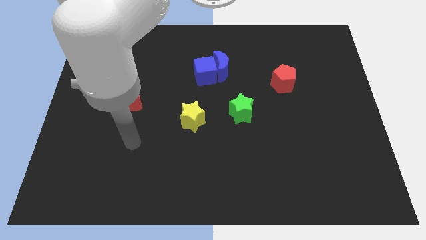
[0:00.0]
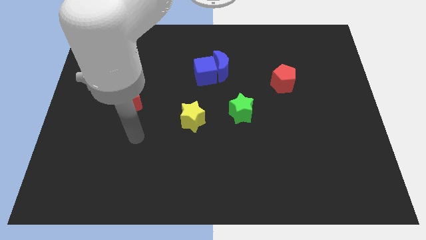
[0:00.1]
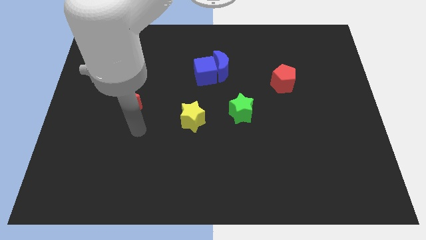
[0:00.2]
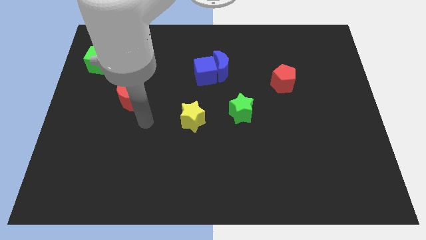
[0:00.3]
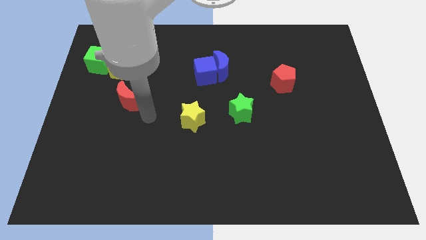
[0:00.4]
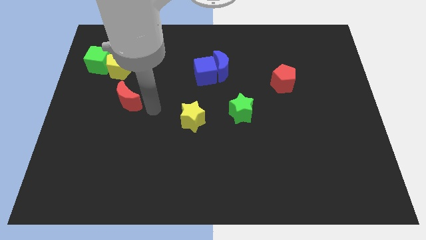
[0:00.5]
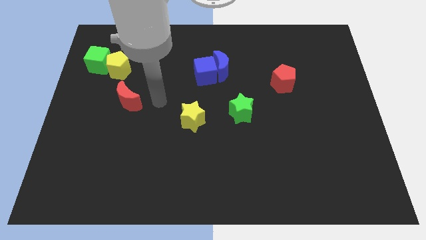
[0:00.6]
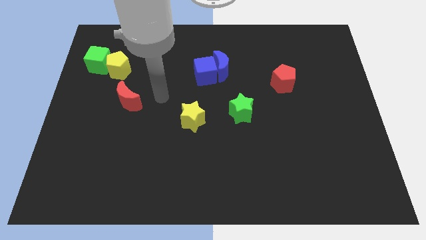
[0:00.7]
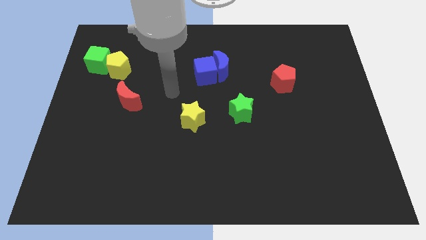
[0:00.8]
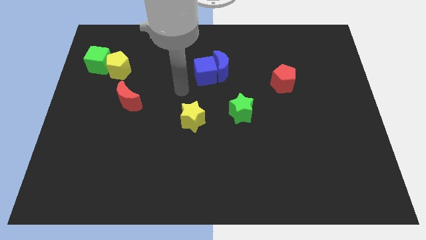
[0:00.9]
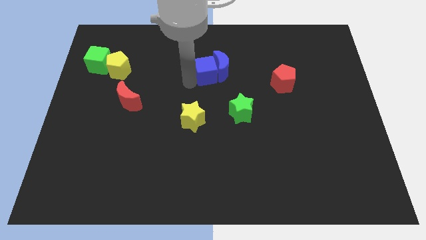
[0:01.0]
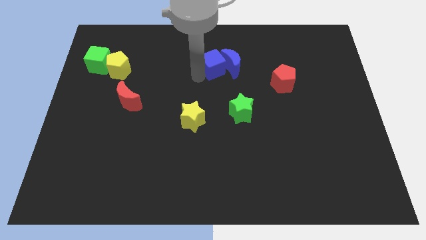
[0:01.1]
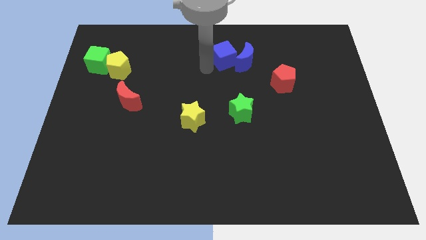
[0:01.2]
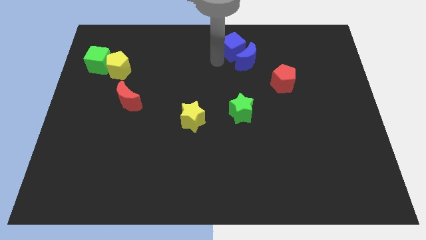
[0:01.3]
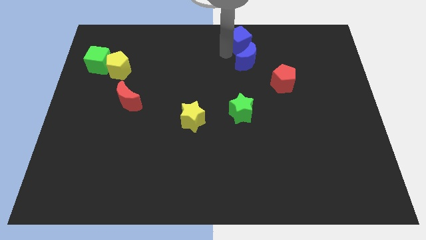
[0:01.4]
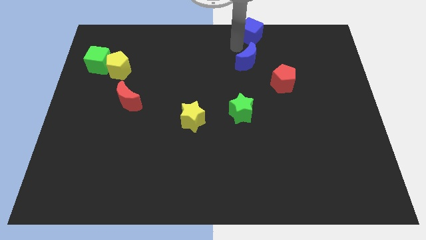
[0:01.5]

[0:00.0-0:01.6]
separate the blue moon from the blue cube

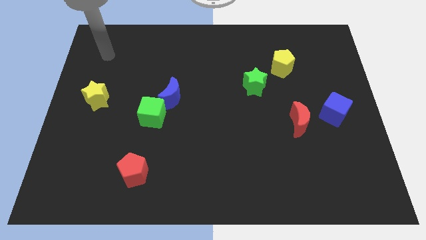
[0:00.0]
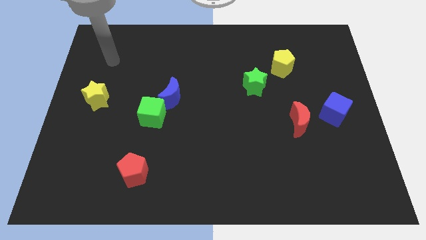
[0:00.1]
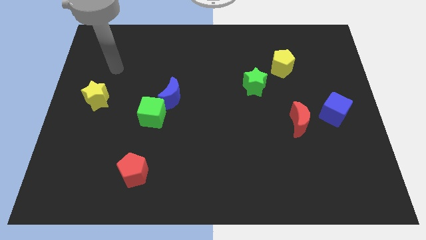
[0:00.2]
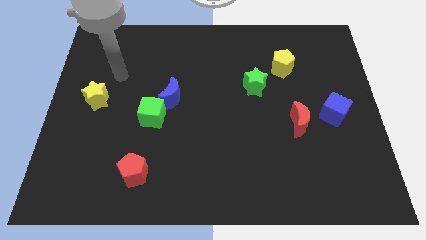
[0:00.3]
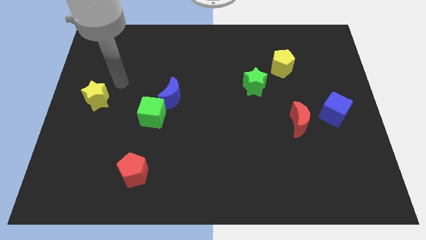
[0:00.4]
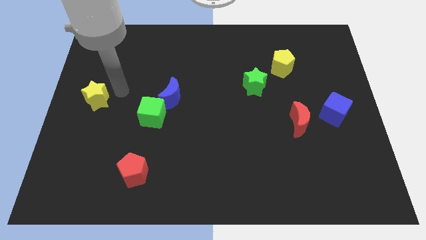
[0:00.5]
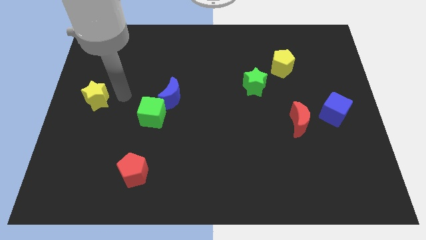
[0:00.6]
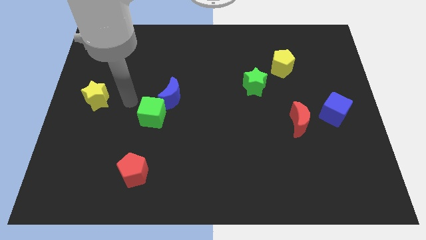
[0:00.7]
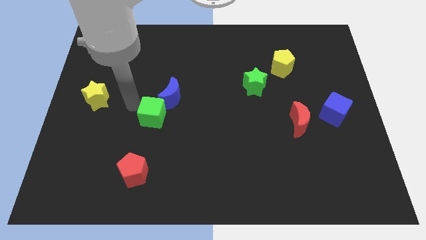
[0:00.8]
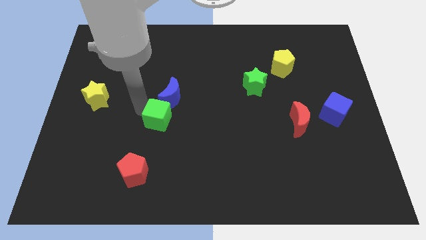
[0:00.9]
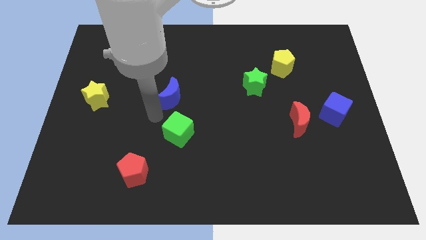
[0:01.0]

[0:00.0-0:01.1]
separate the blue moon from the green cube

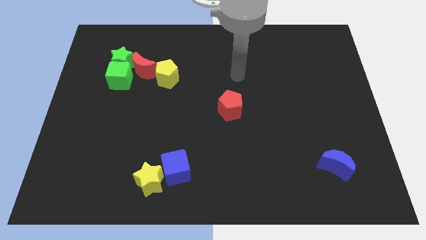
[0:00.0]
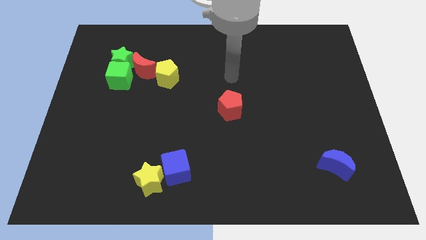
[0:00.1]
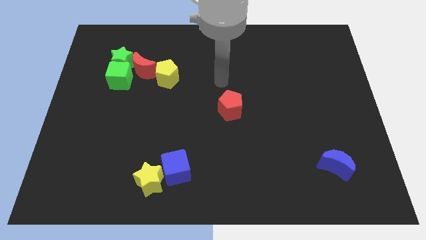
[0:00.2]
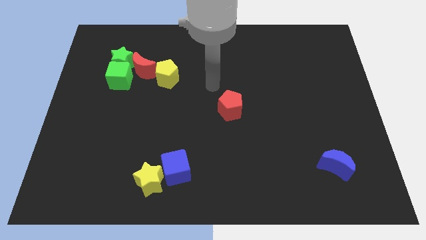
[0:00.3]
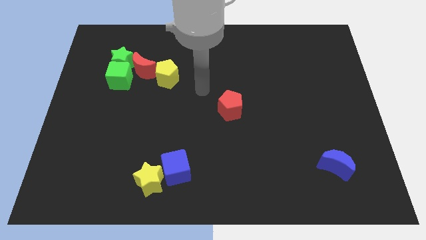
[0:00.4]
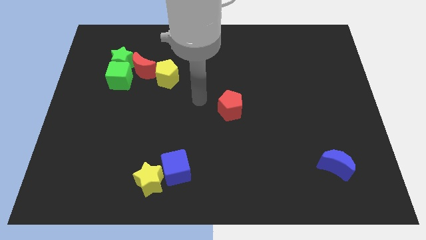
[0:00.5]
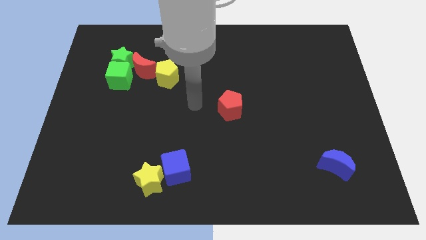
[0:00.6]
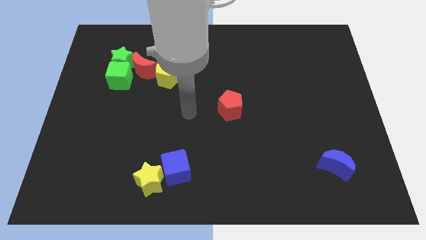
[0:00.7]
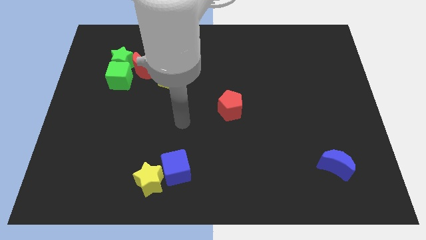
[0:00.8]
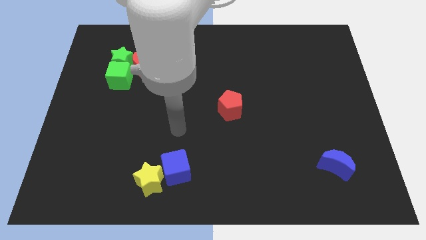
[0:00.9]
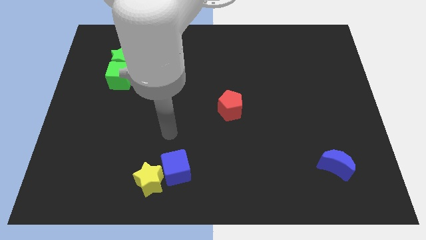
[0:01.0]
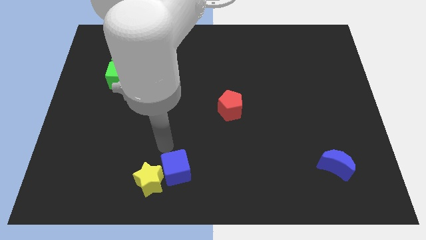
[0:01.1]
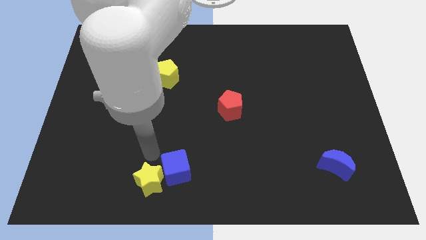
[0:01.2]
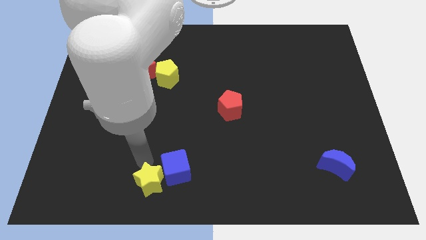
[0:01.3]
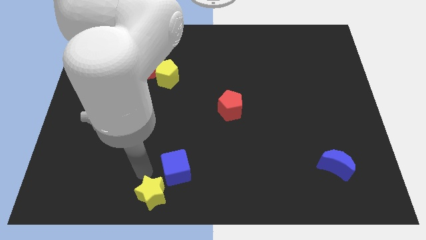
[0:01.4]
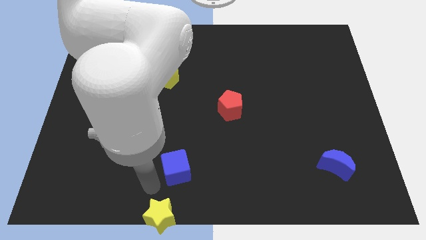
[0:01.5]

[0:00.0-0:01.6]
separate the blue cube from the yellow star

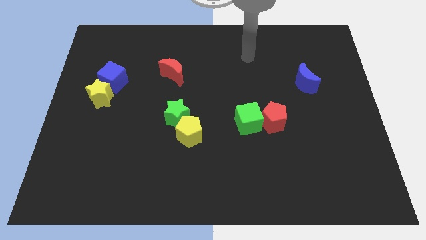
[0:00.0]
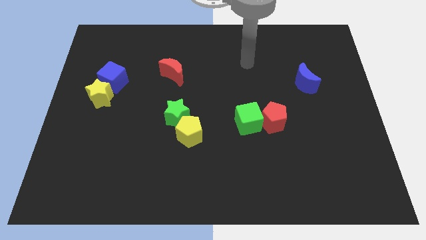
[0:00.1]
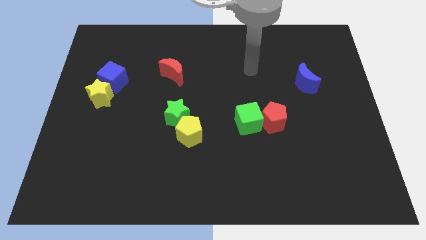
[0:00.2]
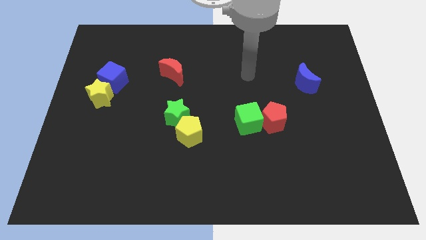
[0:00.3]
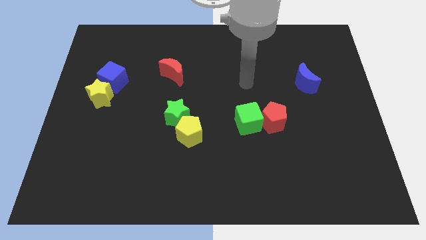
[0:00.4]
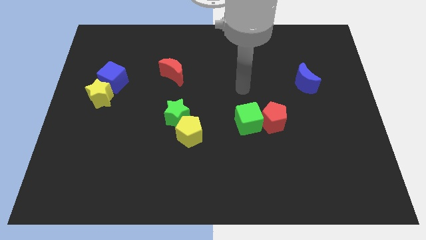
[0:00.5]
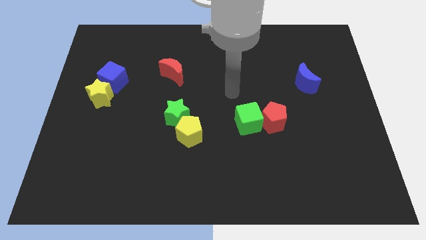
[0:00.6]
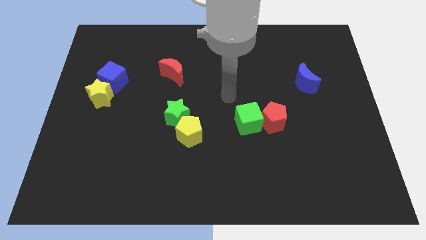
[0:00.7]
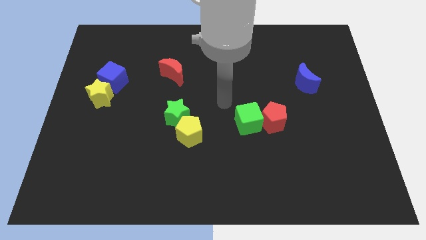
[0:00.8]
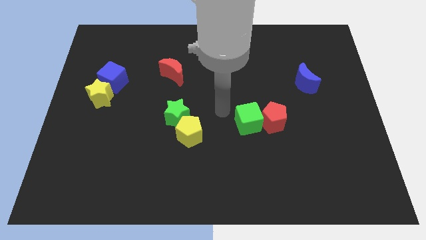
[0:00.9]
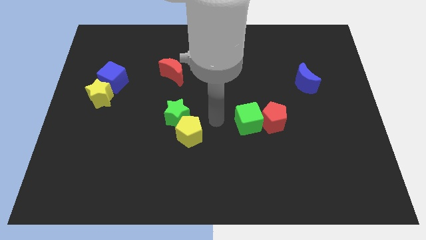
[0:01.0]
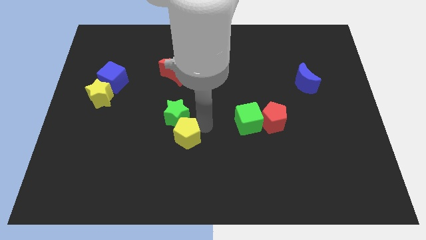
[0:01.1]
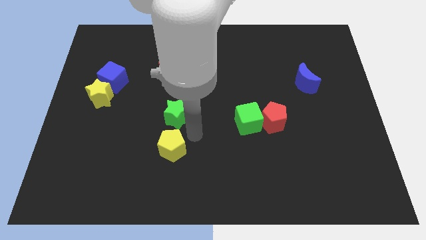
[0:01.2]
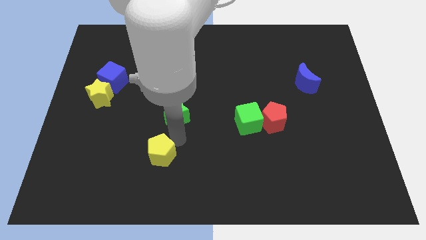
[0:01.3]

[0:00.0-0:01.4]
separate the green star from the yellow pentagon

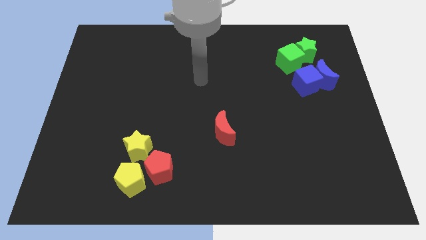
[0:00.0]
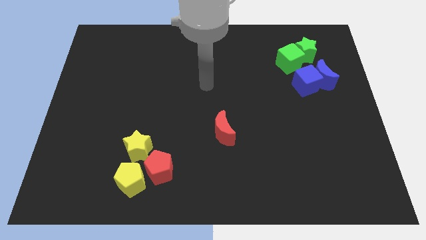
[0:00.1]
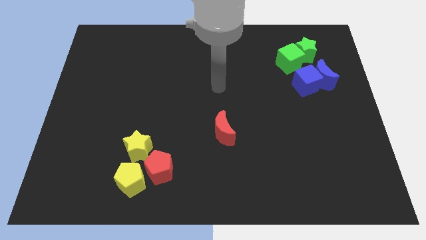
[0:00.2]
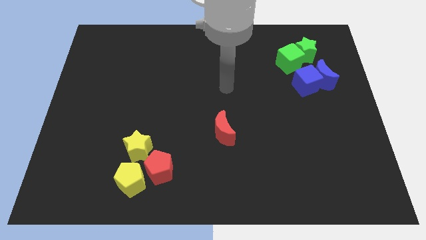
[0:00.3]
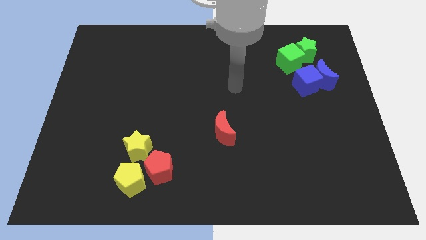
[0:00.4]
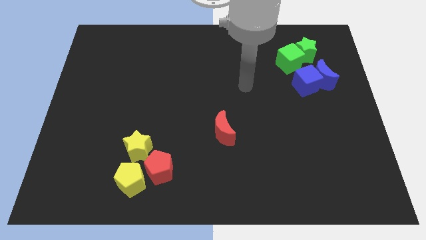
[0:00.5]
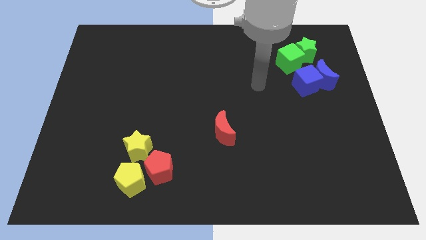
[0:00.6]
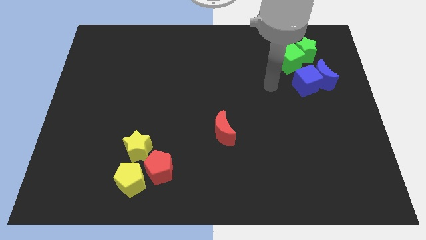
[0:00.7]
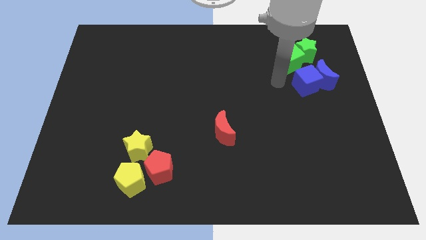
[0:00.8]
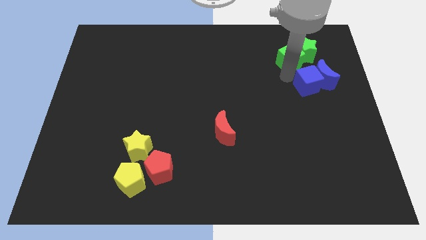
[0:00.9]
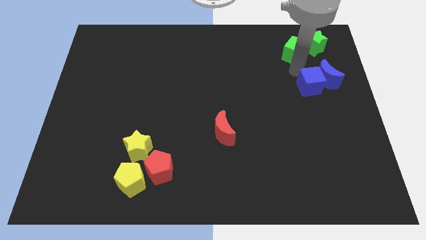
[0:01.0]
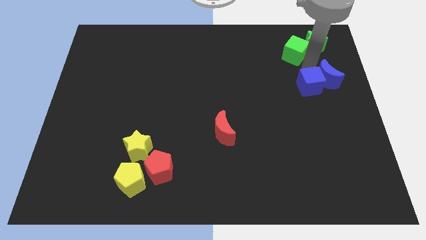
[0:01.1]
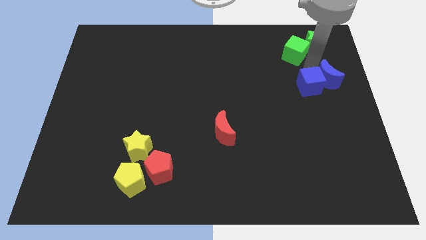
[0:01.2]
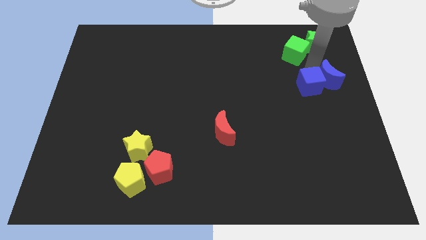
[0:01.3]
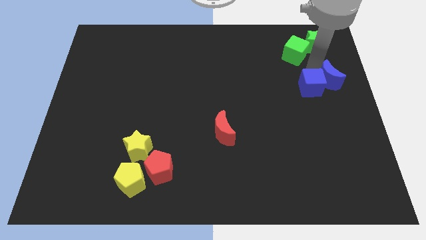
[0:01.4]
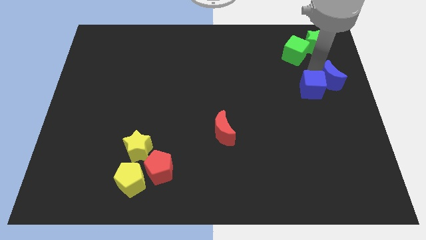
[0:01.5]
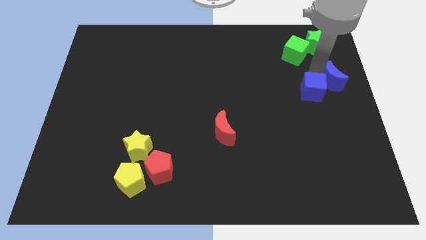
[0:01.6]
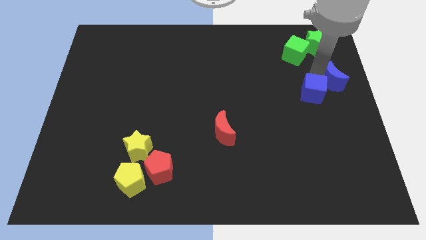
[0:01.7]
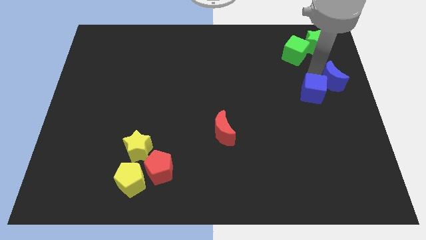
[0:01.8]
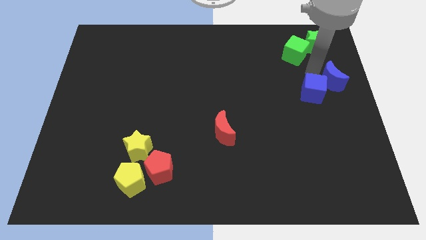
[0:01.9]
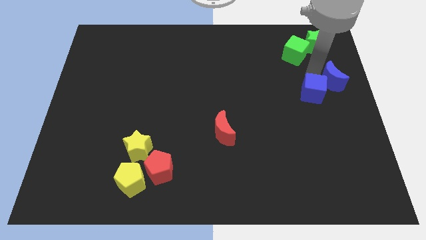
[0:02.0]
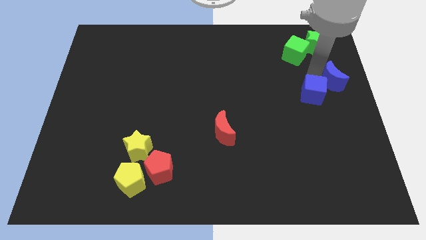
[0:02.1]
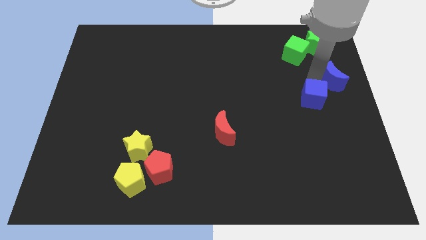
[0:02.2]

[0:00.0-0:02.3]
pull the blue cube apart from the blue moon and green cube

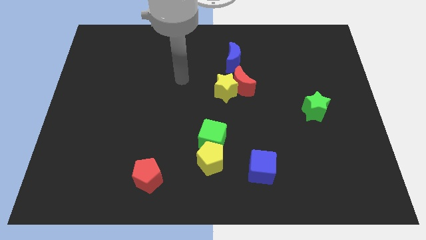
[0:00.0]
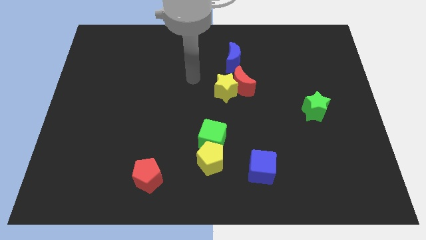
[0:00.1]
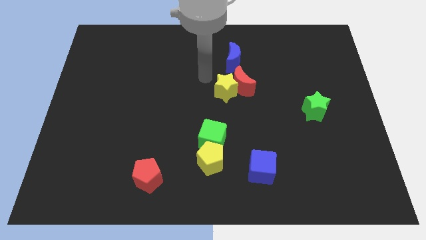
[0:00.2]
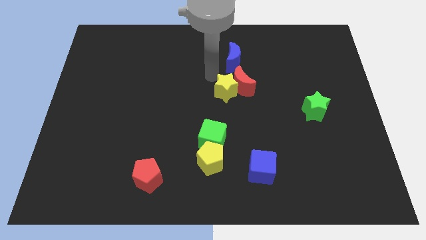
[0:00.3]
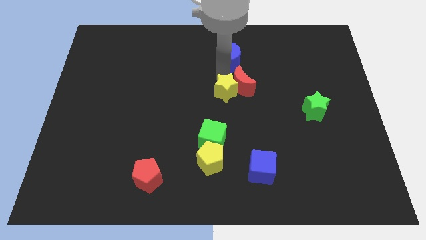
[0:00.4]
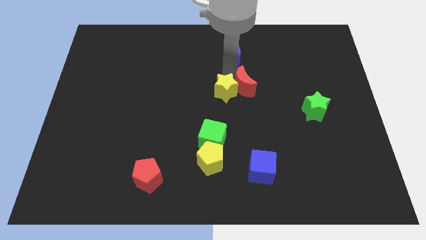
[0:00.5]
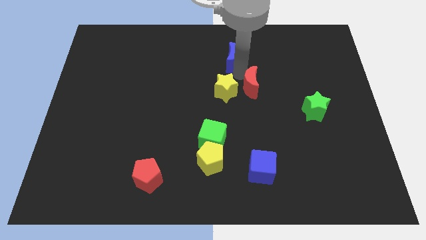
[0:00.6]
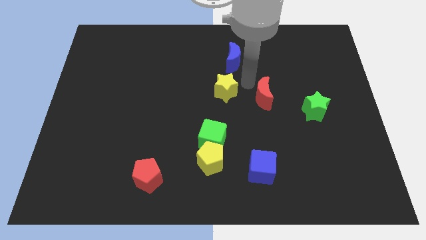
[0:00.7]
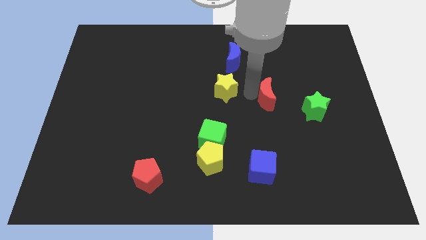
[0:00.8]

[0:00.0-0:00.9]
pull the yellow star apart from the red moon

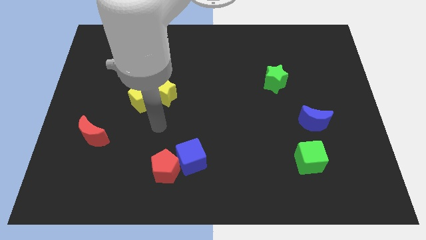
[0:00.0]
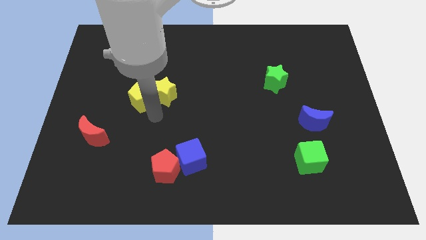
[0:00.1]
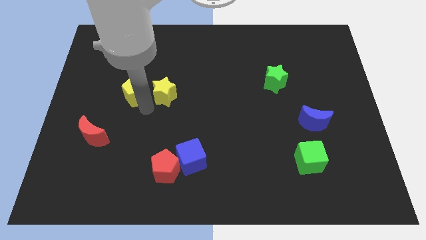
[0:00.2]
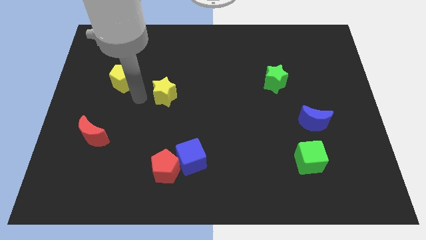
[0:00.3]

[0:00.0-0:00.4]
separate the yellow star from the yellow pentagon
